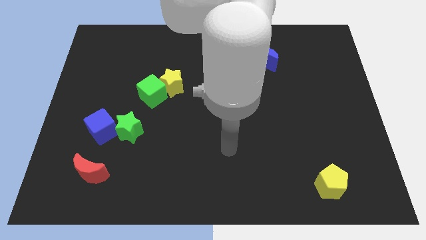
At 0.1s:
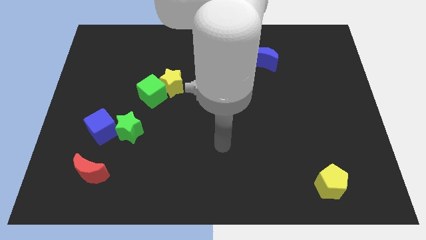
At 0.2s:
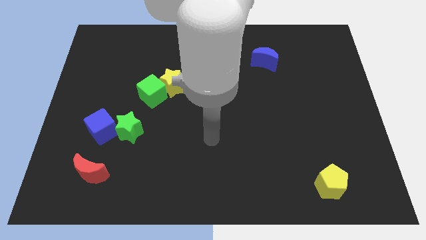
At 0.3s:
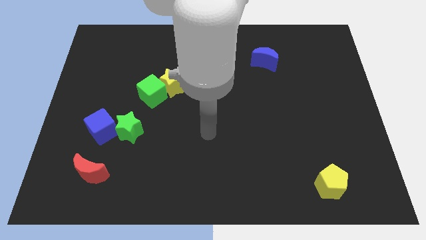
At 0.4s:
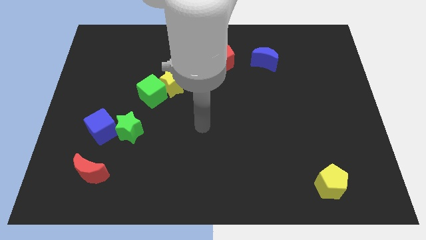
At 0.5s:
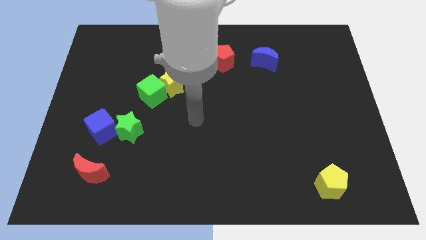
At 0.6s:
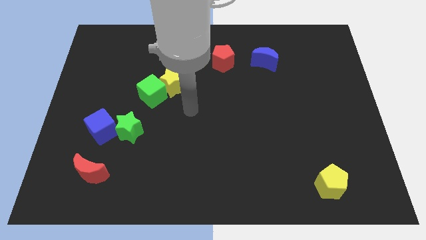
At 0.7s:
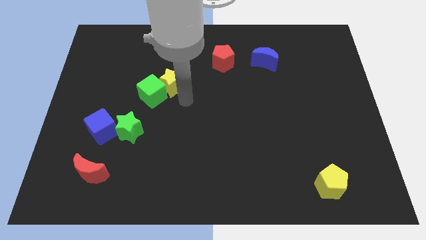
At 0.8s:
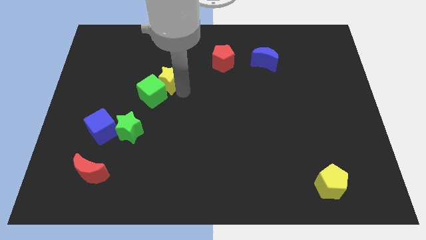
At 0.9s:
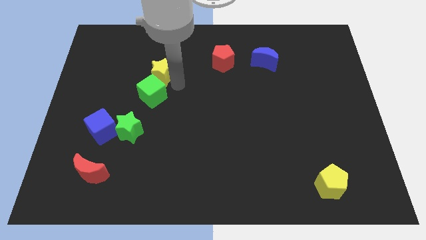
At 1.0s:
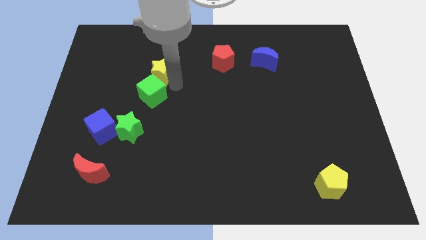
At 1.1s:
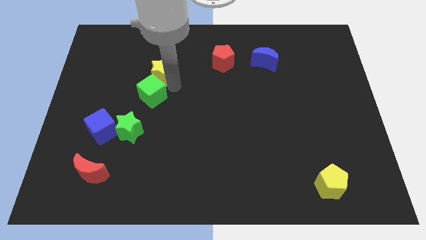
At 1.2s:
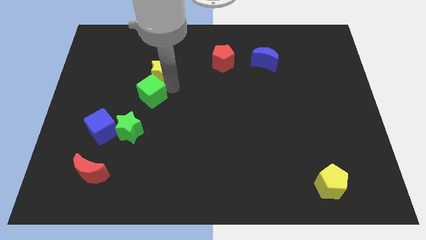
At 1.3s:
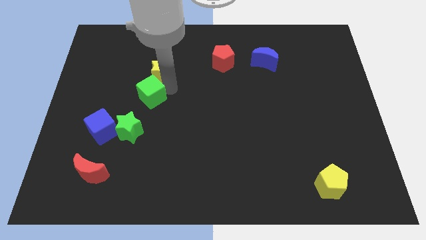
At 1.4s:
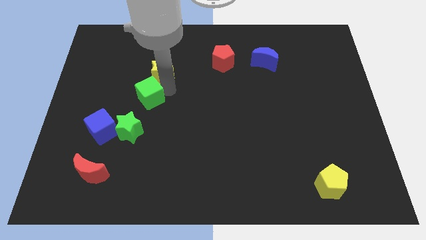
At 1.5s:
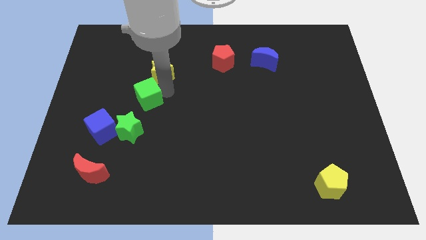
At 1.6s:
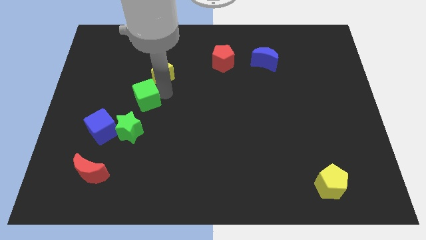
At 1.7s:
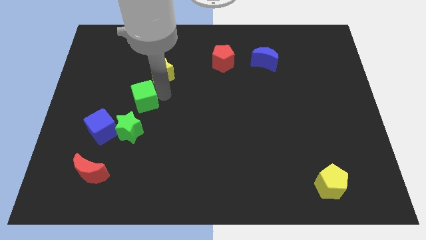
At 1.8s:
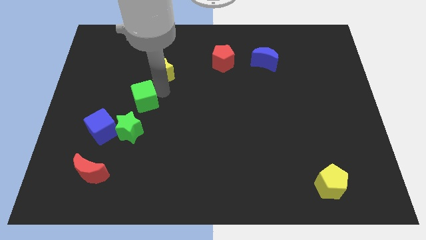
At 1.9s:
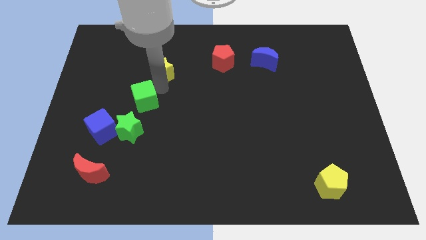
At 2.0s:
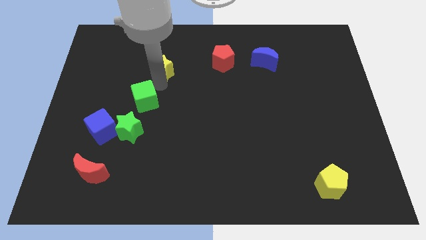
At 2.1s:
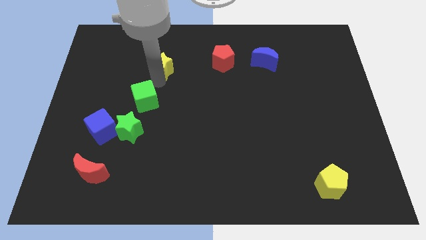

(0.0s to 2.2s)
separate the green cube from the yellow star

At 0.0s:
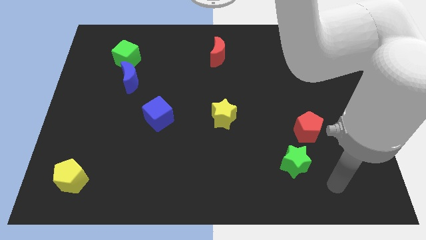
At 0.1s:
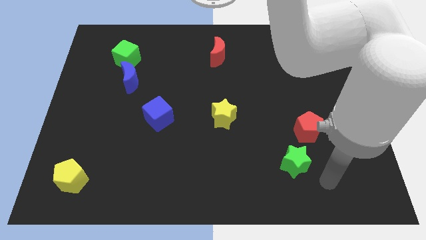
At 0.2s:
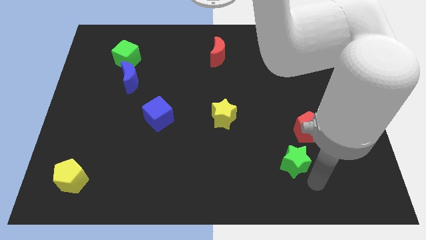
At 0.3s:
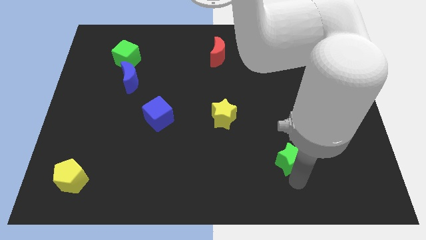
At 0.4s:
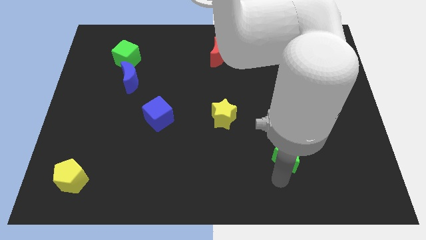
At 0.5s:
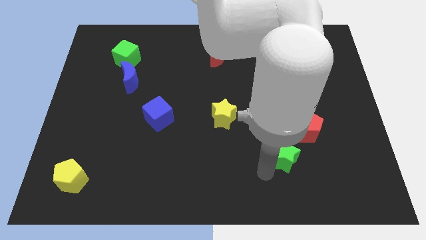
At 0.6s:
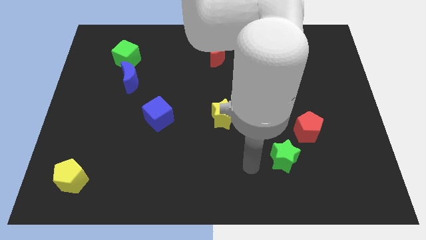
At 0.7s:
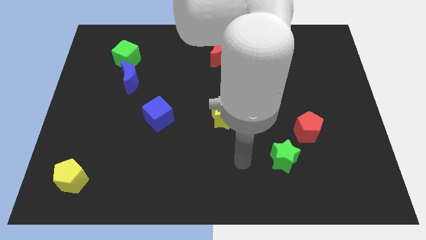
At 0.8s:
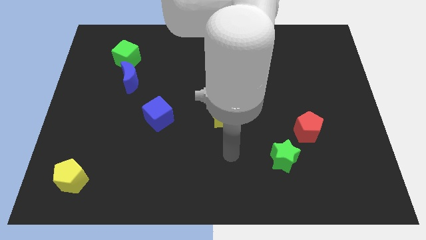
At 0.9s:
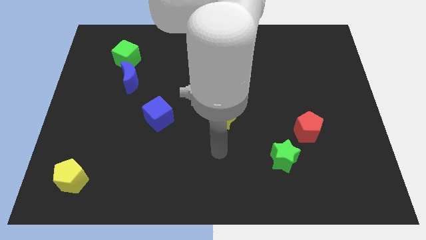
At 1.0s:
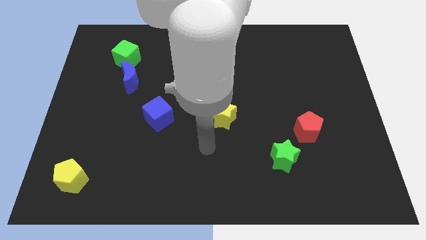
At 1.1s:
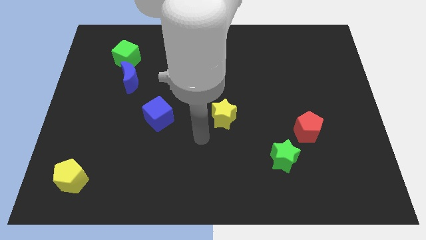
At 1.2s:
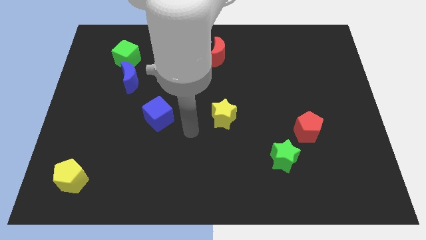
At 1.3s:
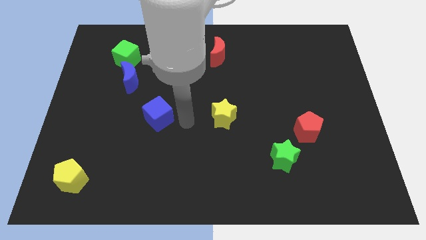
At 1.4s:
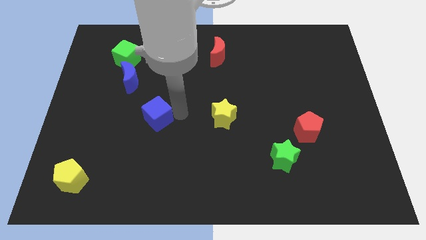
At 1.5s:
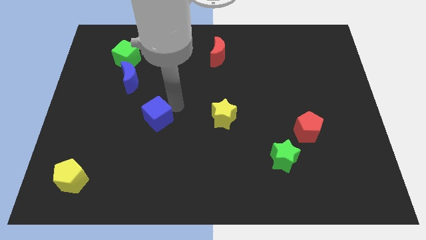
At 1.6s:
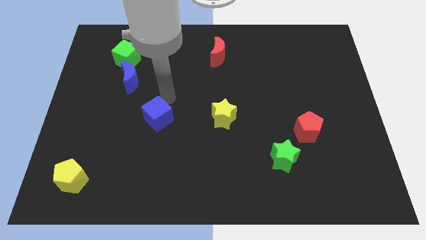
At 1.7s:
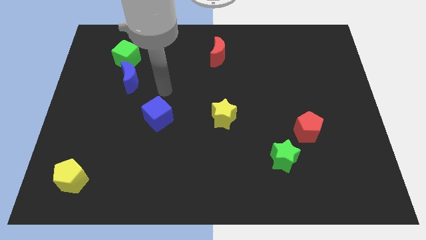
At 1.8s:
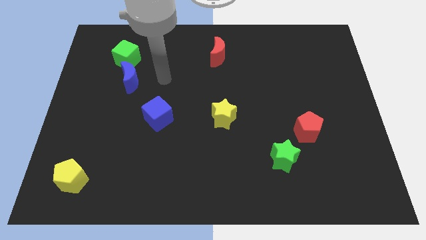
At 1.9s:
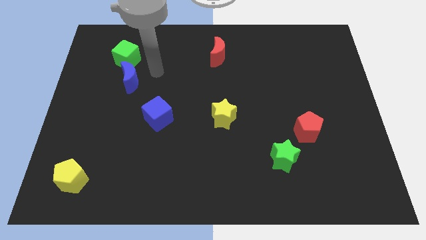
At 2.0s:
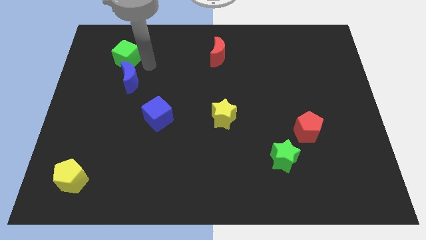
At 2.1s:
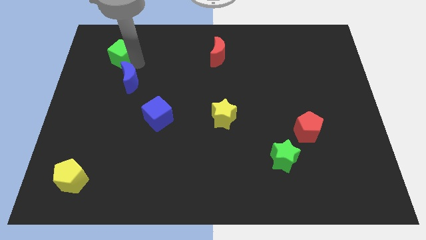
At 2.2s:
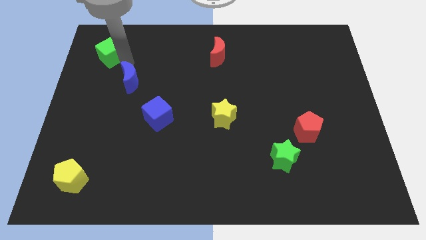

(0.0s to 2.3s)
pull the blue moon apart from the green cube

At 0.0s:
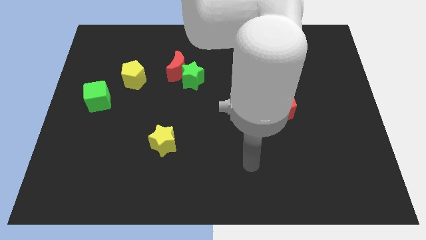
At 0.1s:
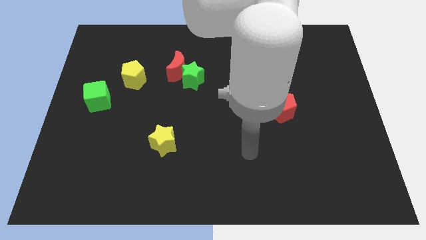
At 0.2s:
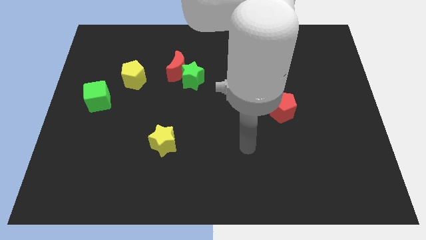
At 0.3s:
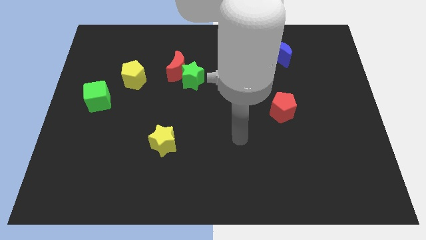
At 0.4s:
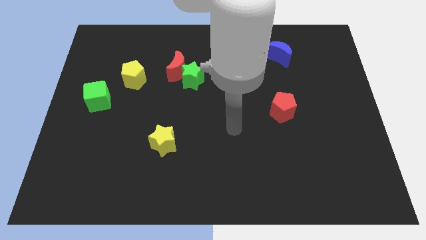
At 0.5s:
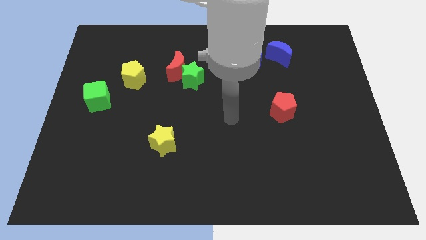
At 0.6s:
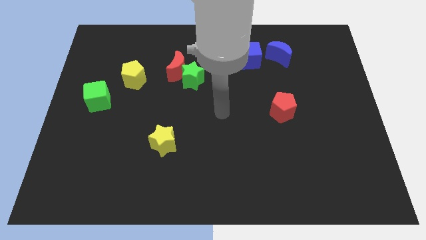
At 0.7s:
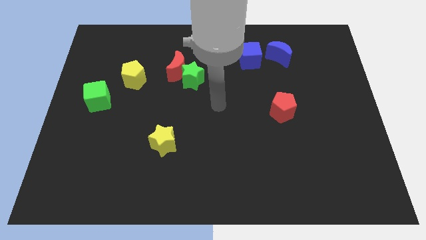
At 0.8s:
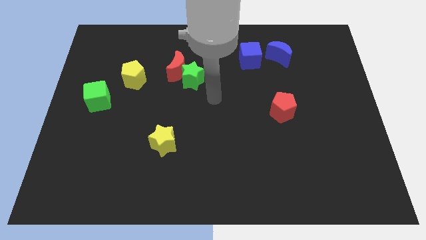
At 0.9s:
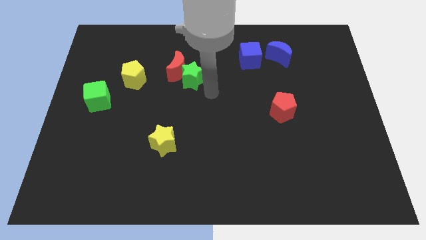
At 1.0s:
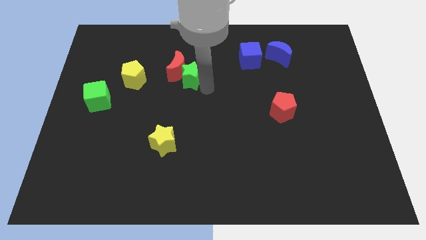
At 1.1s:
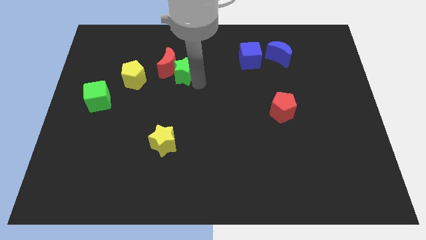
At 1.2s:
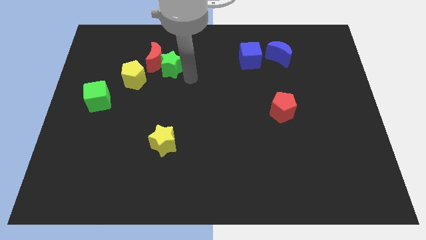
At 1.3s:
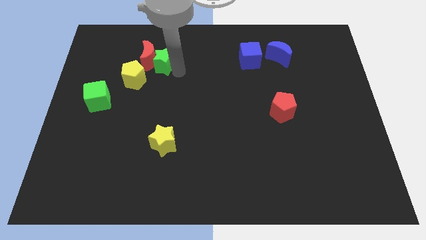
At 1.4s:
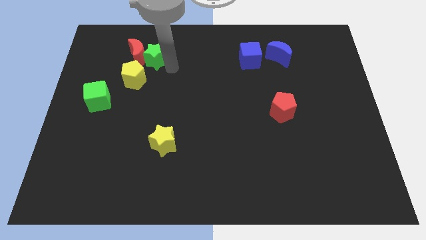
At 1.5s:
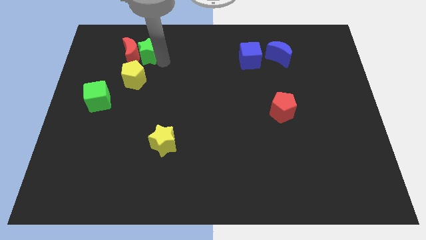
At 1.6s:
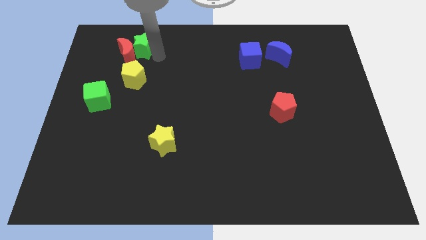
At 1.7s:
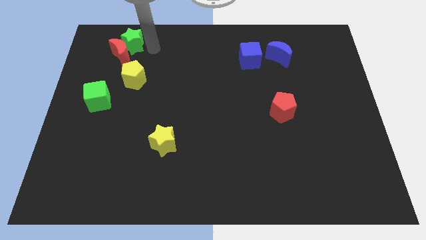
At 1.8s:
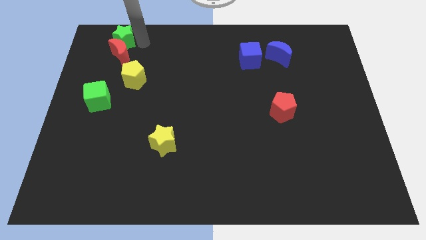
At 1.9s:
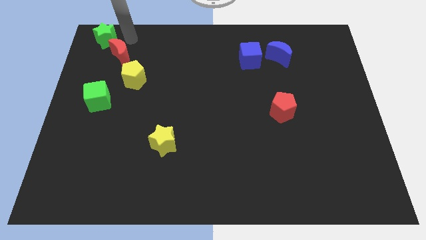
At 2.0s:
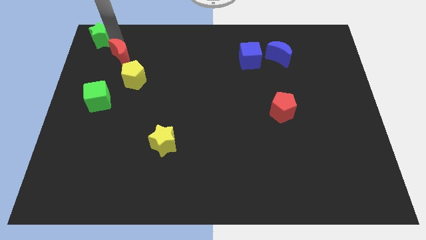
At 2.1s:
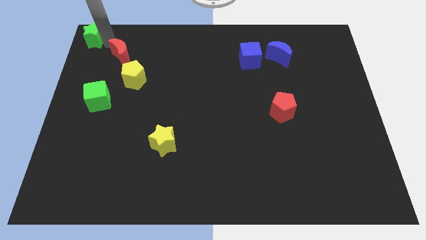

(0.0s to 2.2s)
separate the red moon from the green star

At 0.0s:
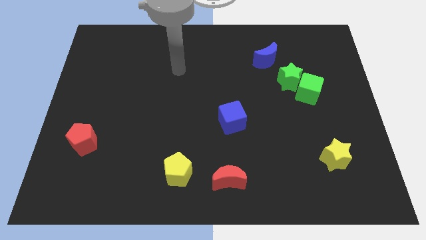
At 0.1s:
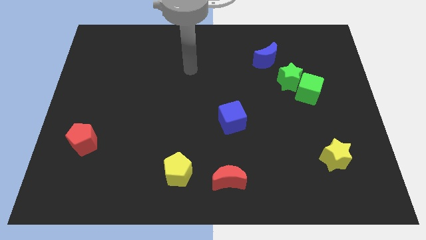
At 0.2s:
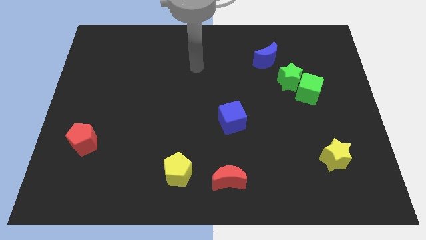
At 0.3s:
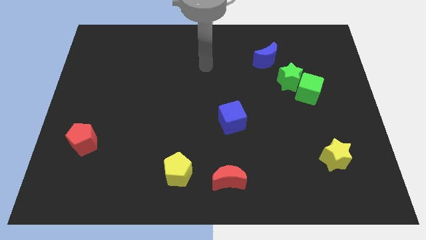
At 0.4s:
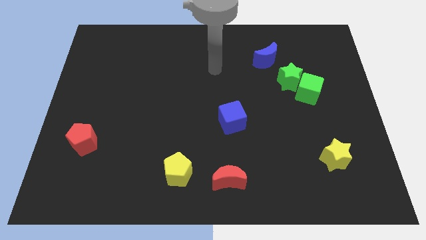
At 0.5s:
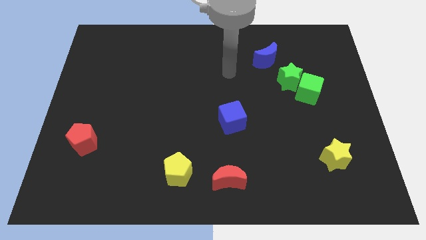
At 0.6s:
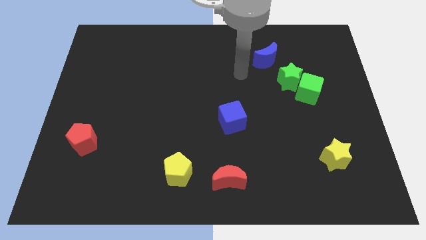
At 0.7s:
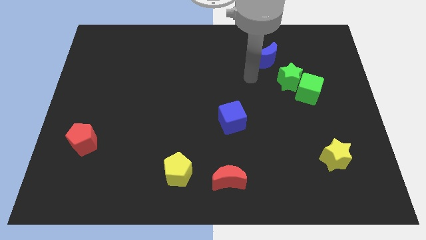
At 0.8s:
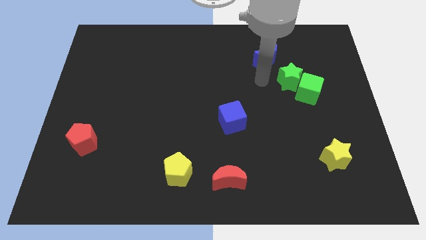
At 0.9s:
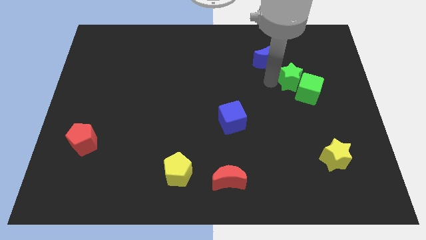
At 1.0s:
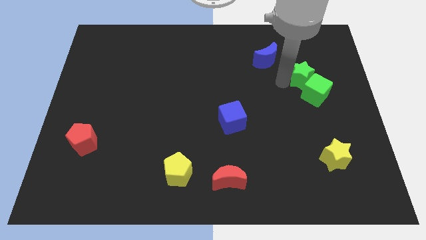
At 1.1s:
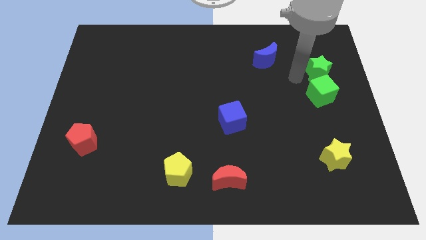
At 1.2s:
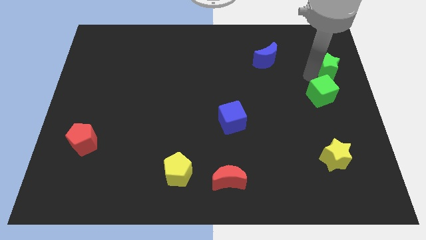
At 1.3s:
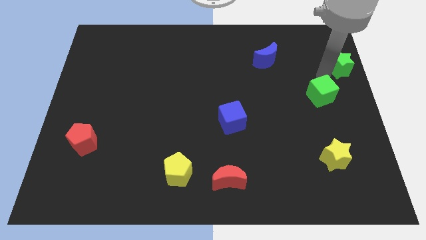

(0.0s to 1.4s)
pull the green cube apart from the green star

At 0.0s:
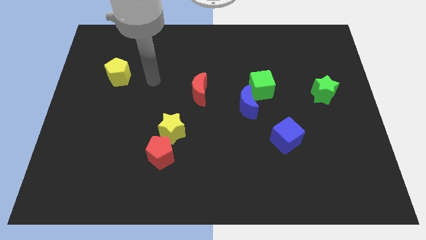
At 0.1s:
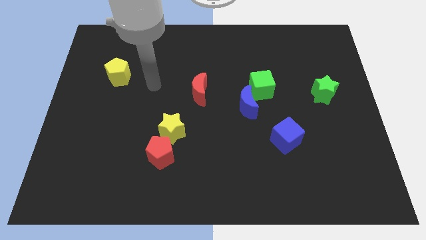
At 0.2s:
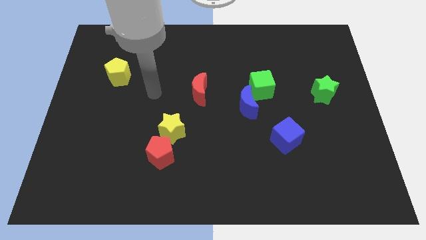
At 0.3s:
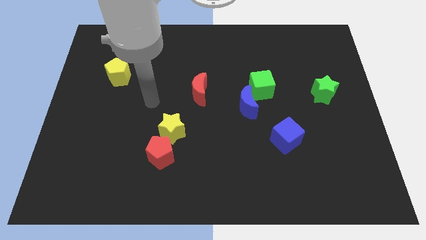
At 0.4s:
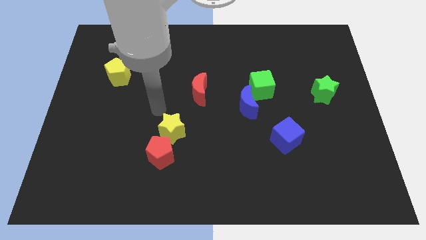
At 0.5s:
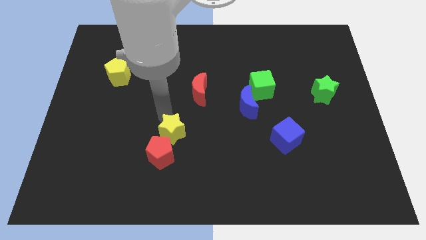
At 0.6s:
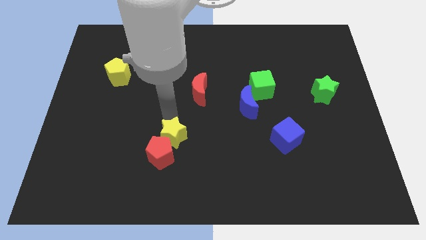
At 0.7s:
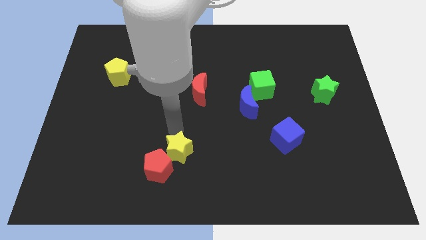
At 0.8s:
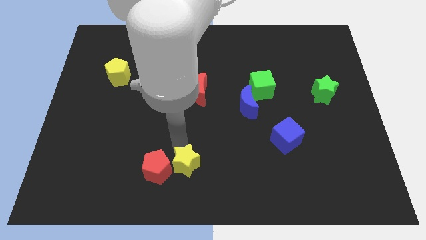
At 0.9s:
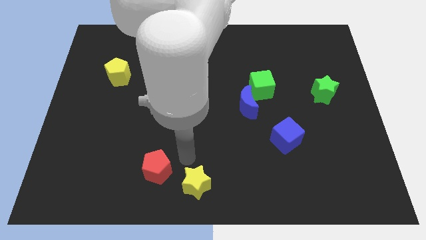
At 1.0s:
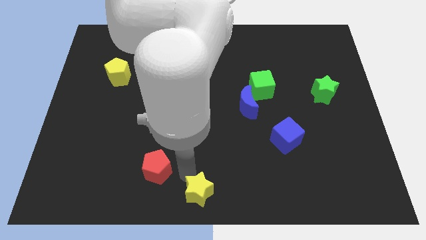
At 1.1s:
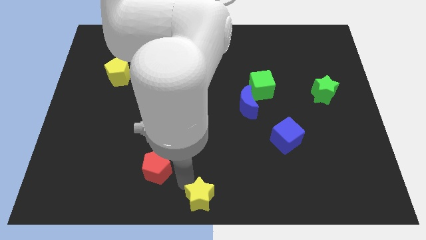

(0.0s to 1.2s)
separate the red pentagon from the yellow star

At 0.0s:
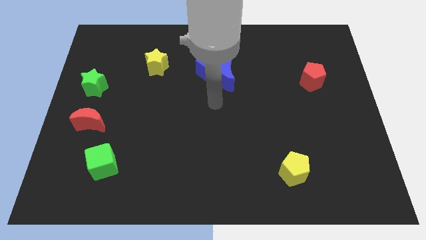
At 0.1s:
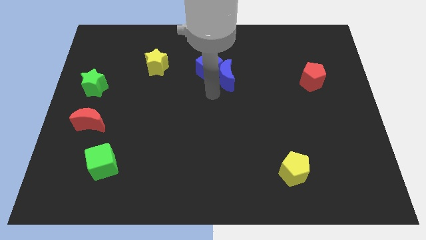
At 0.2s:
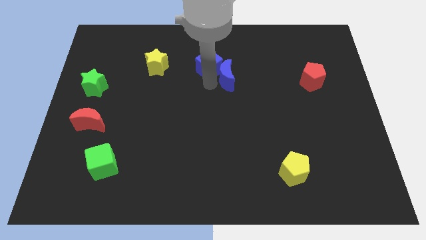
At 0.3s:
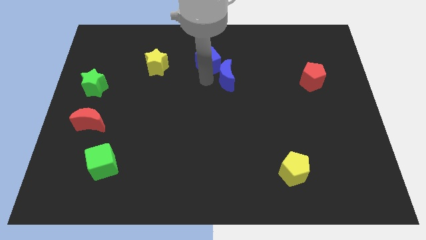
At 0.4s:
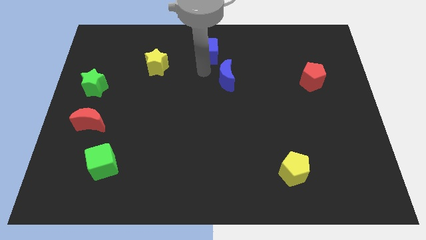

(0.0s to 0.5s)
move the blue moon away from the blue cube
